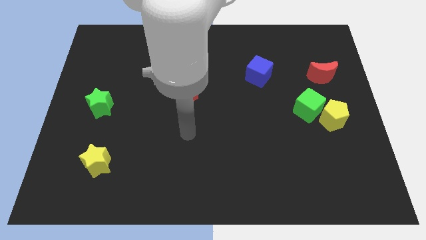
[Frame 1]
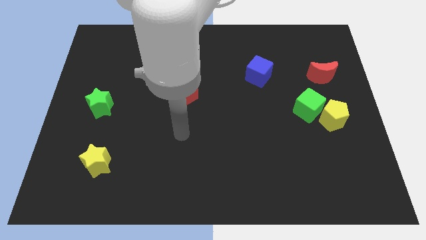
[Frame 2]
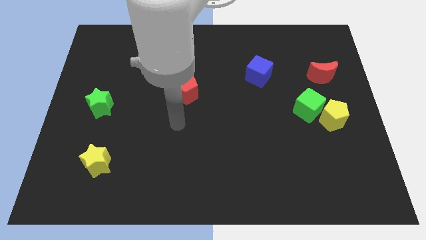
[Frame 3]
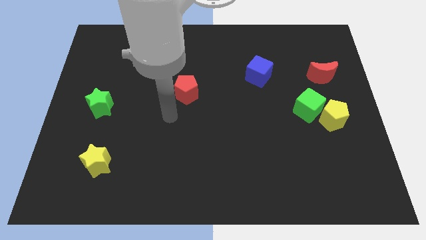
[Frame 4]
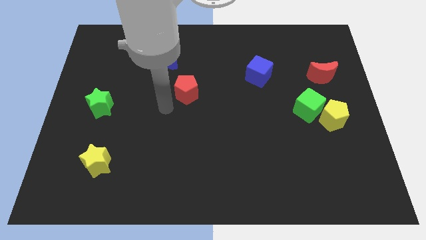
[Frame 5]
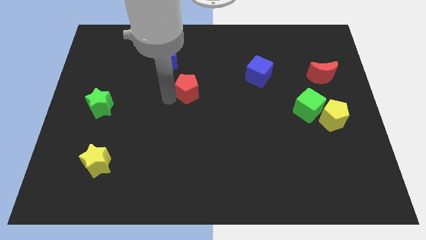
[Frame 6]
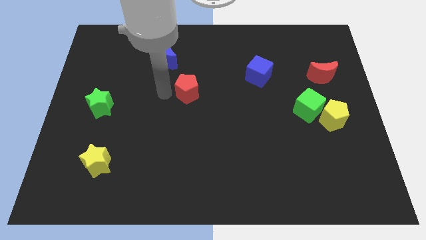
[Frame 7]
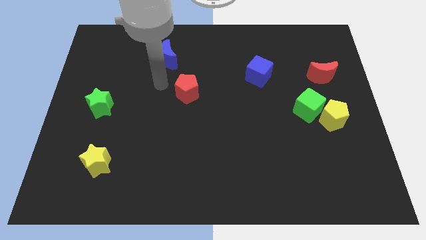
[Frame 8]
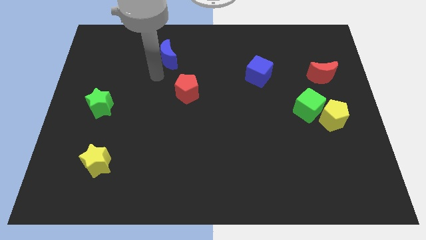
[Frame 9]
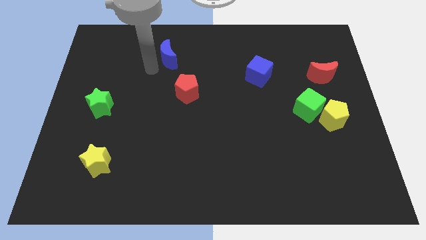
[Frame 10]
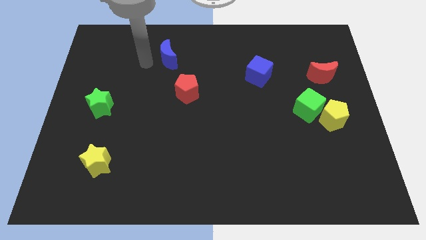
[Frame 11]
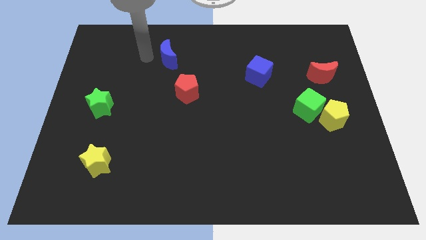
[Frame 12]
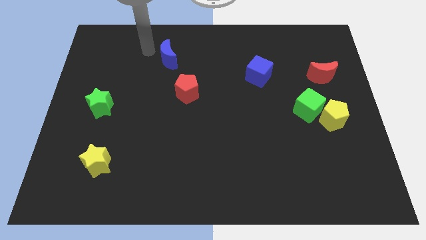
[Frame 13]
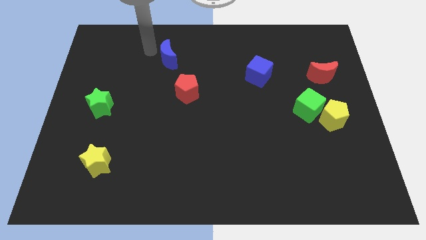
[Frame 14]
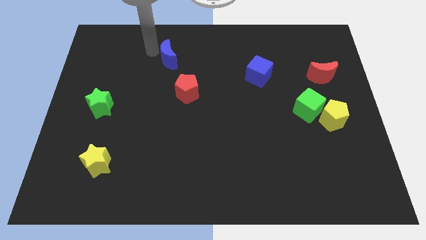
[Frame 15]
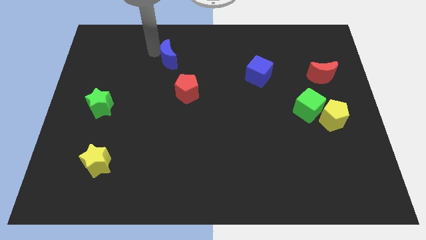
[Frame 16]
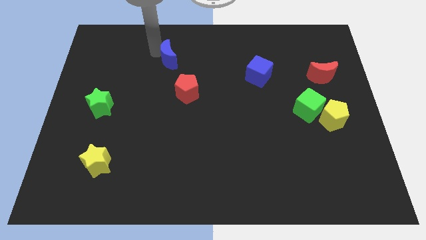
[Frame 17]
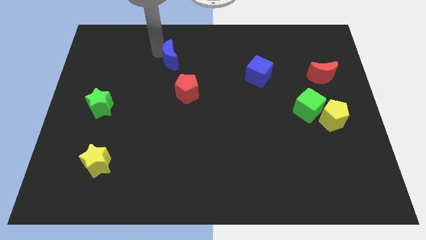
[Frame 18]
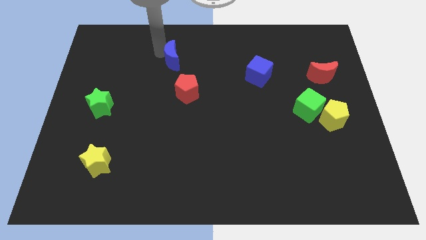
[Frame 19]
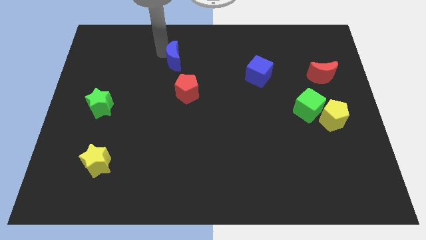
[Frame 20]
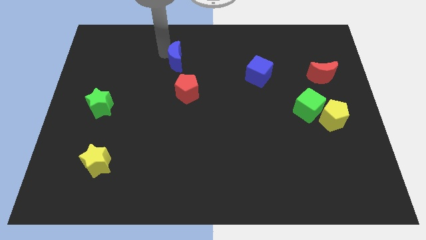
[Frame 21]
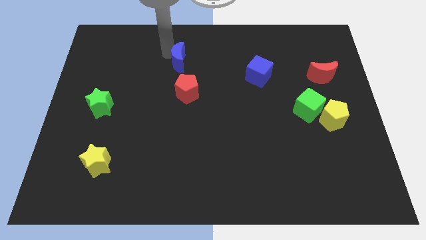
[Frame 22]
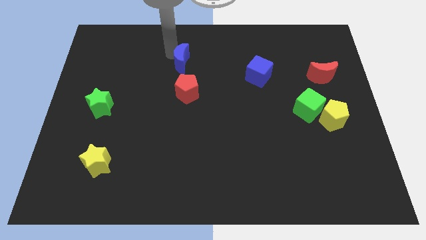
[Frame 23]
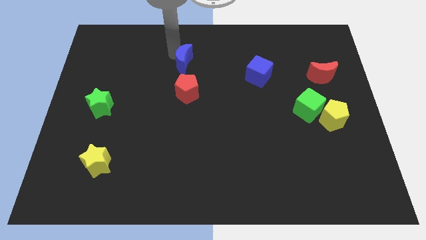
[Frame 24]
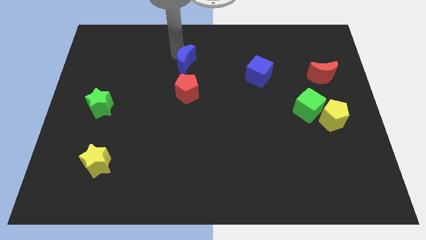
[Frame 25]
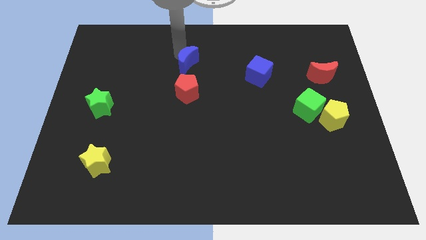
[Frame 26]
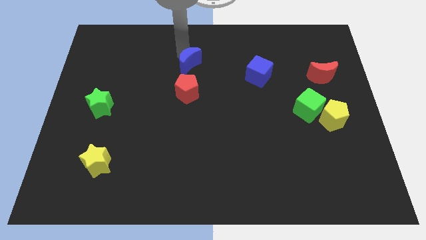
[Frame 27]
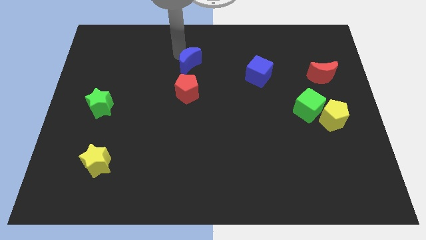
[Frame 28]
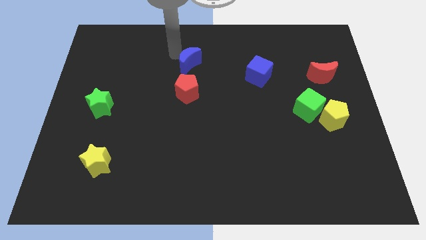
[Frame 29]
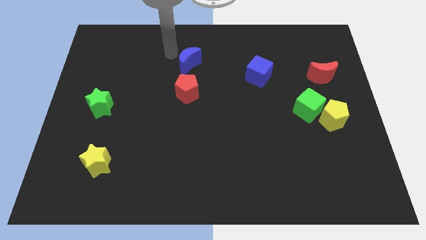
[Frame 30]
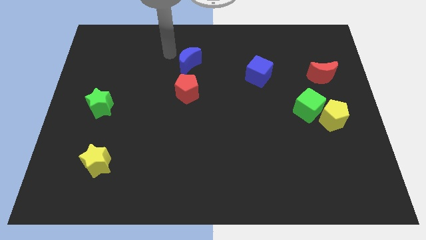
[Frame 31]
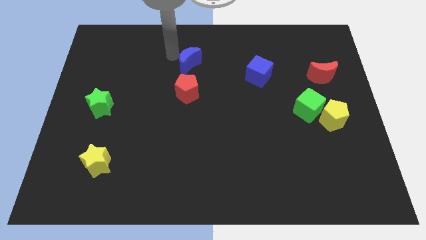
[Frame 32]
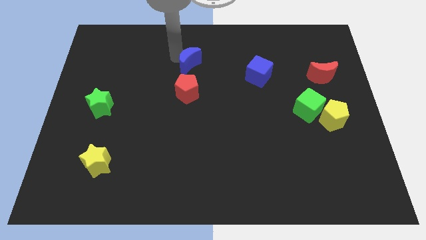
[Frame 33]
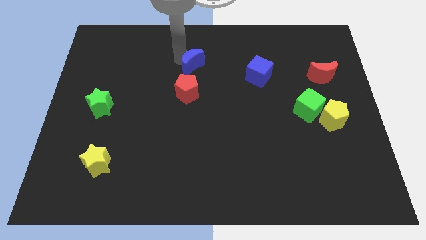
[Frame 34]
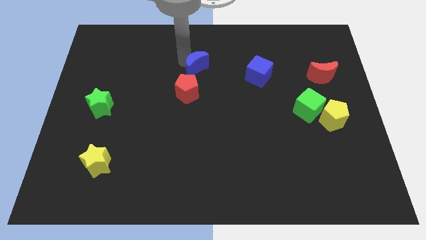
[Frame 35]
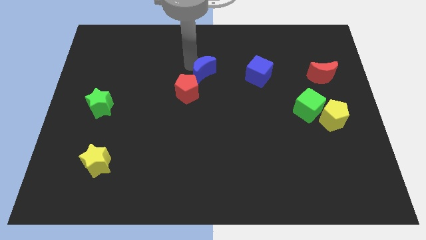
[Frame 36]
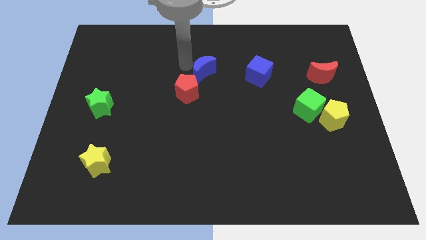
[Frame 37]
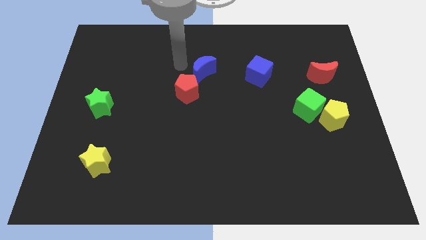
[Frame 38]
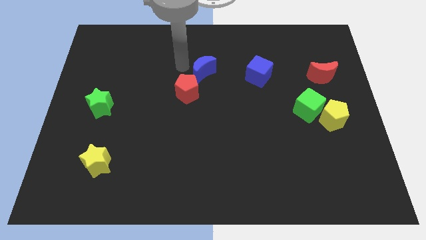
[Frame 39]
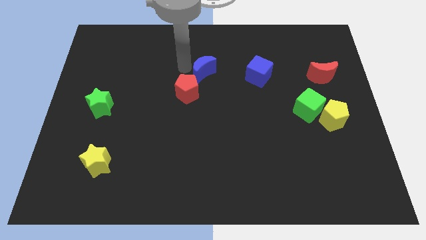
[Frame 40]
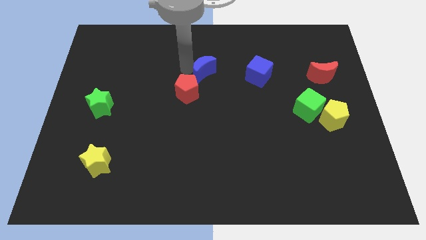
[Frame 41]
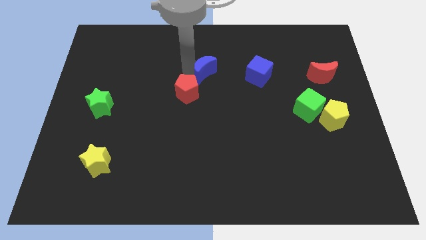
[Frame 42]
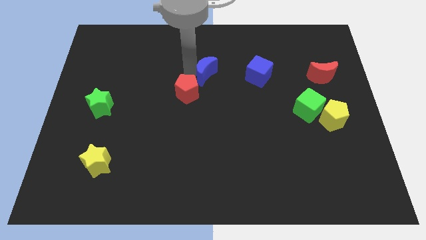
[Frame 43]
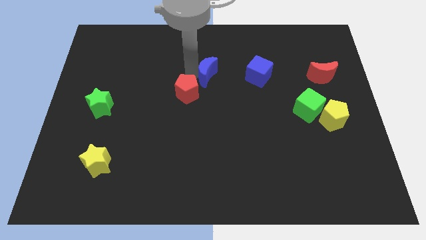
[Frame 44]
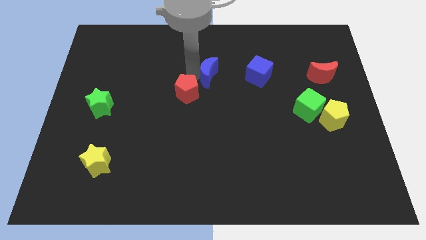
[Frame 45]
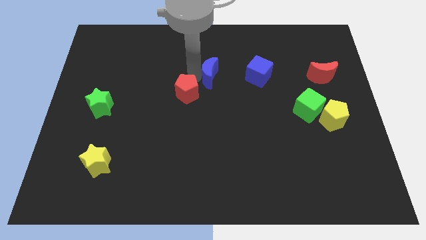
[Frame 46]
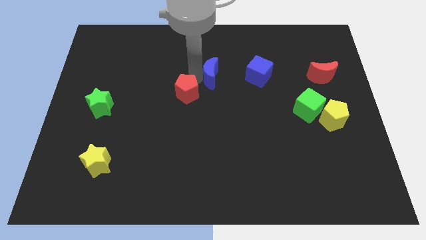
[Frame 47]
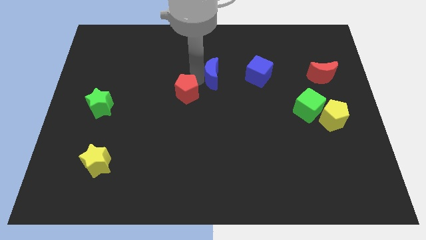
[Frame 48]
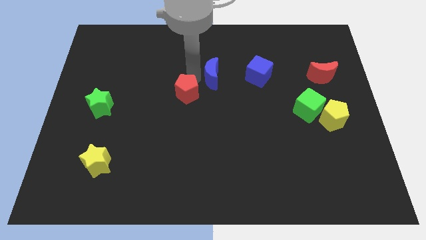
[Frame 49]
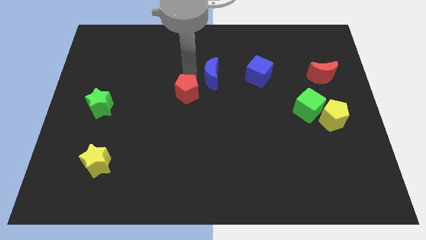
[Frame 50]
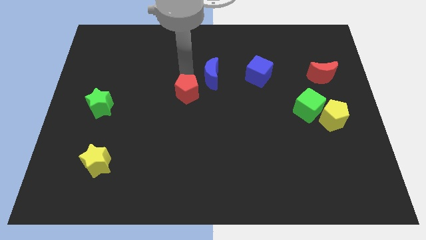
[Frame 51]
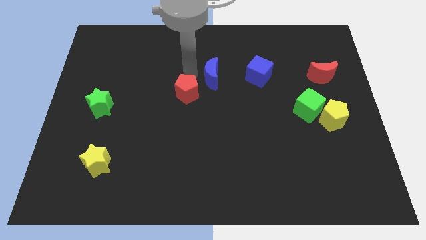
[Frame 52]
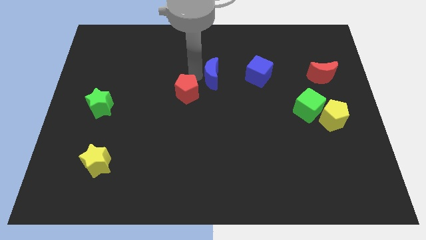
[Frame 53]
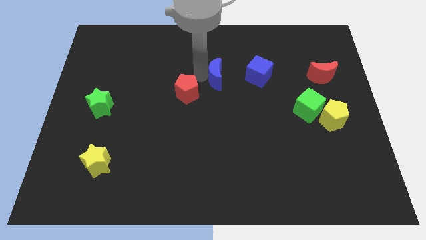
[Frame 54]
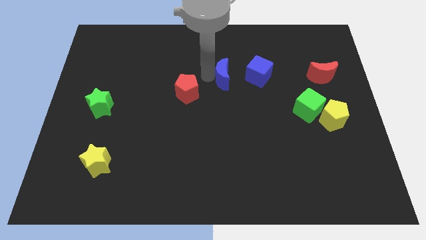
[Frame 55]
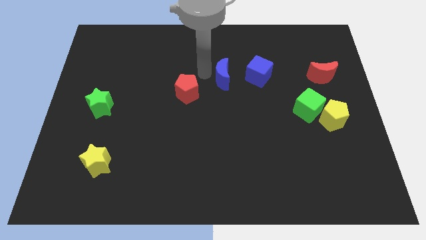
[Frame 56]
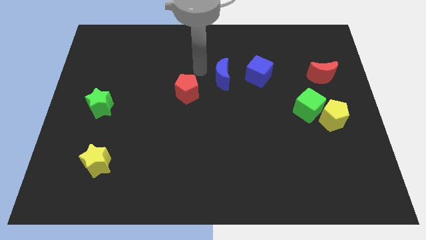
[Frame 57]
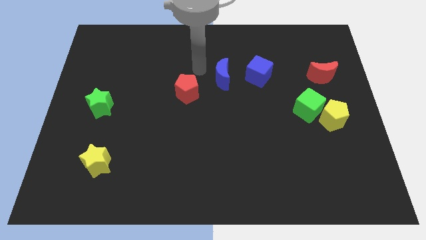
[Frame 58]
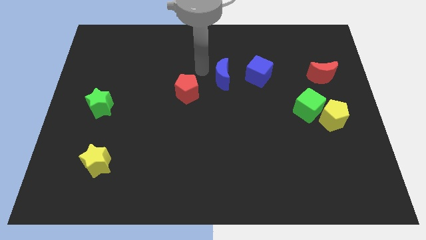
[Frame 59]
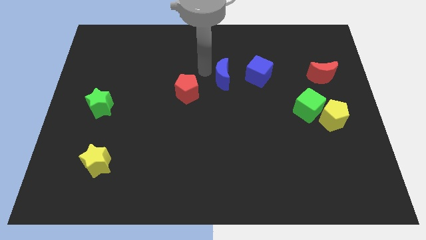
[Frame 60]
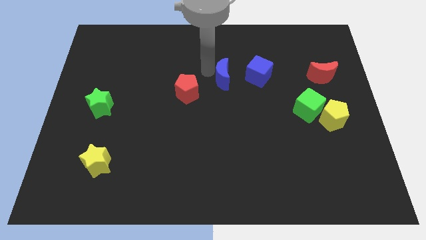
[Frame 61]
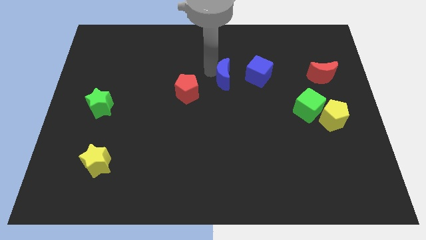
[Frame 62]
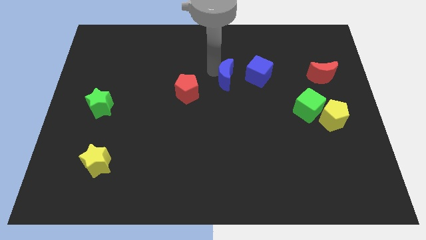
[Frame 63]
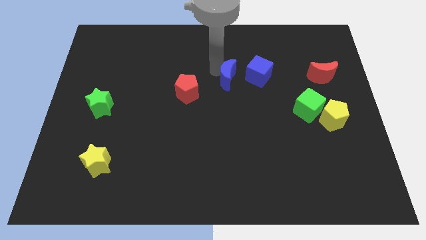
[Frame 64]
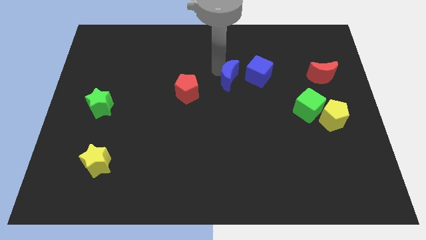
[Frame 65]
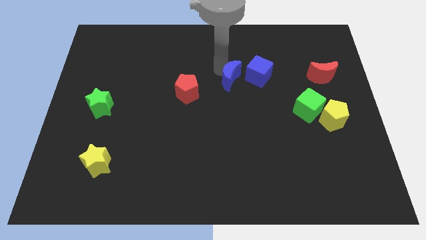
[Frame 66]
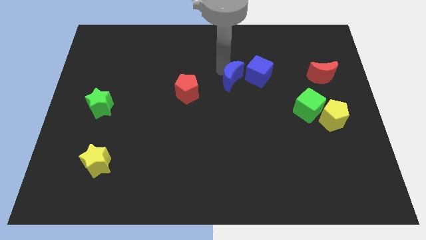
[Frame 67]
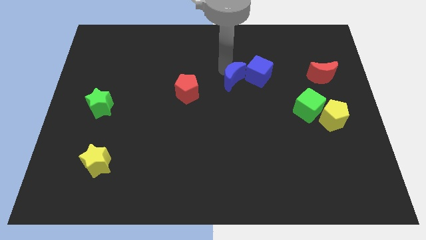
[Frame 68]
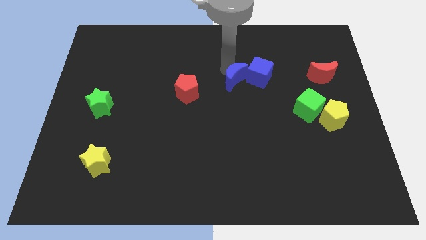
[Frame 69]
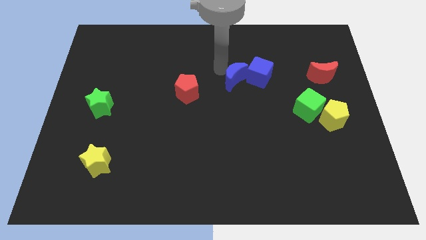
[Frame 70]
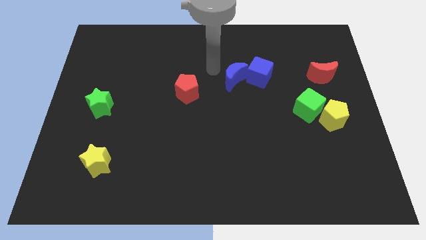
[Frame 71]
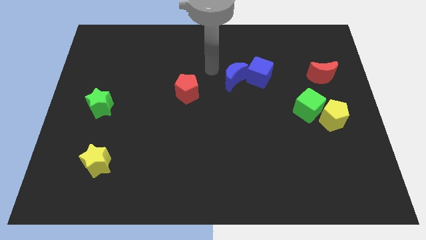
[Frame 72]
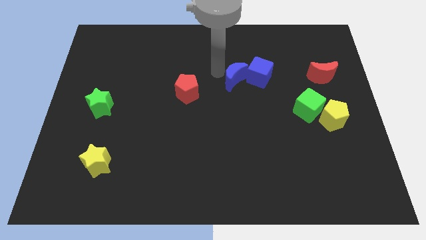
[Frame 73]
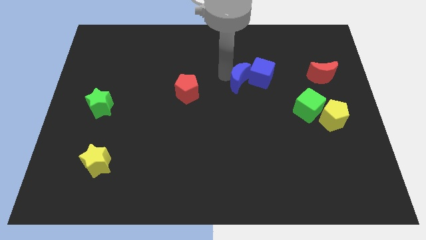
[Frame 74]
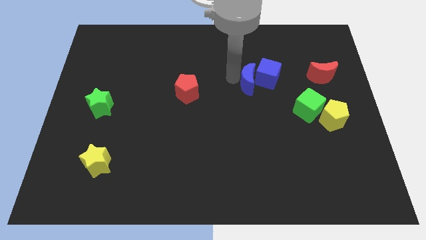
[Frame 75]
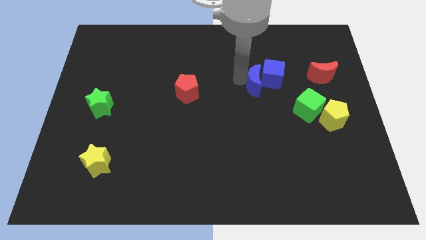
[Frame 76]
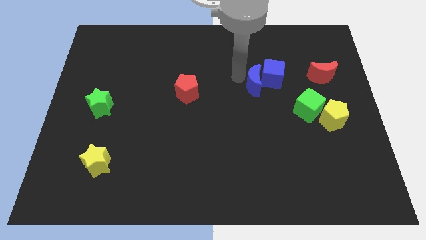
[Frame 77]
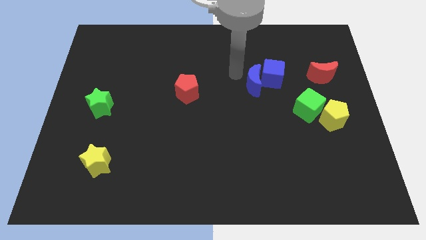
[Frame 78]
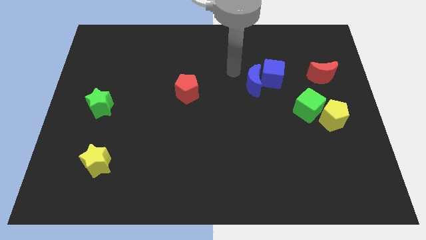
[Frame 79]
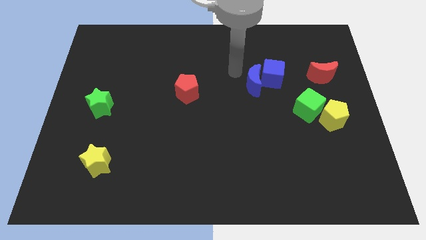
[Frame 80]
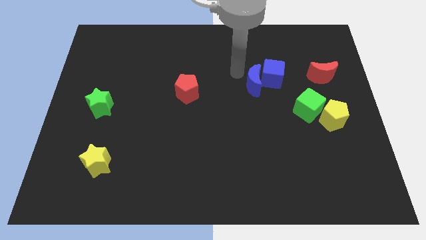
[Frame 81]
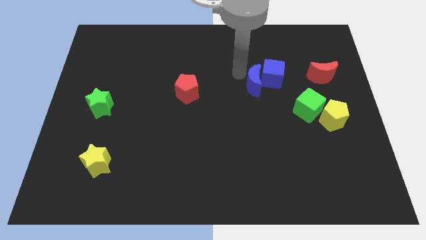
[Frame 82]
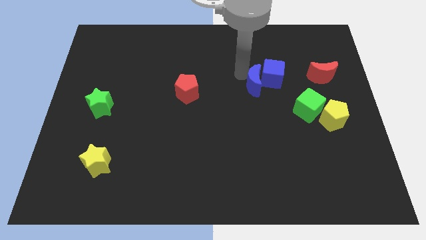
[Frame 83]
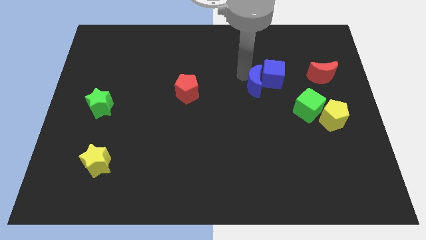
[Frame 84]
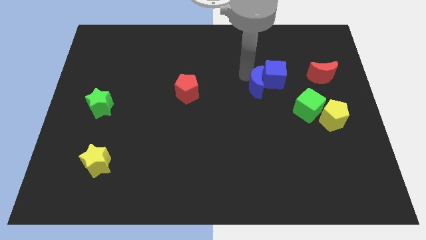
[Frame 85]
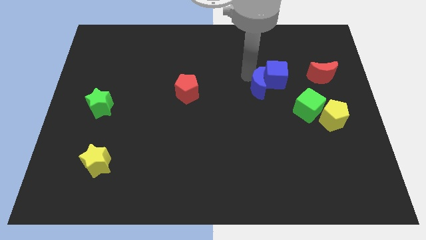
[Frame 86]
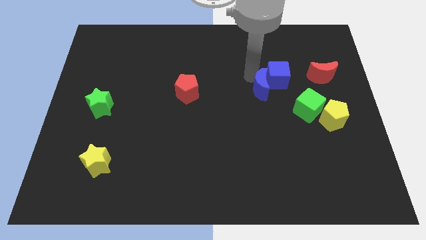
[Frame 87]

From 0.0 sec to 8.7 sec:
slide the blue moon diagonally up and to the left of the green cube
